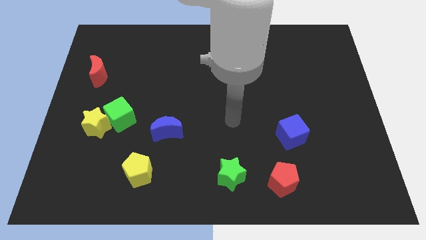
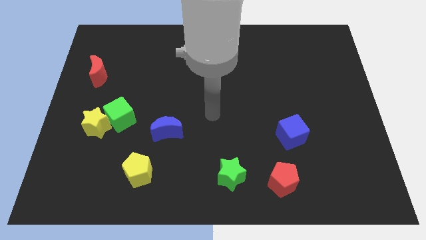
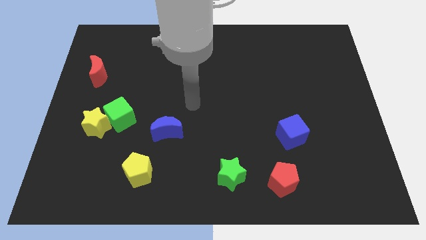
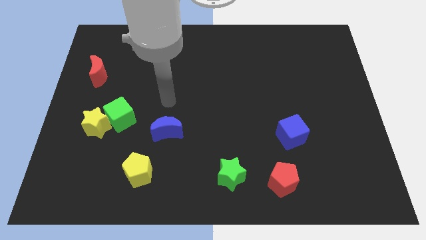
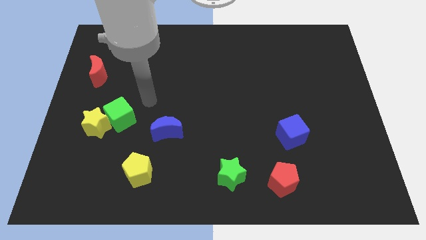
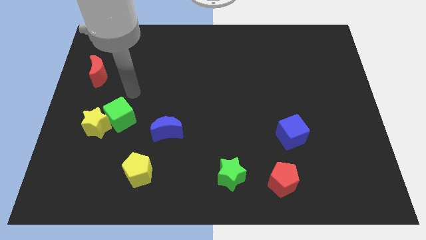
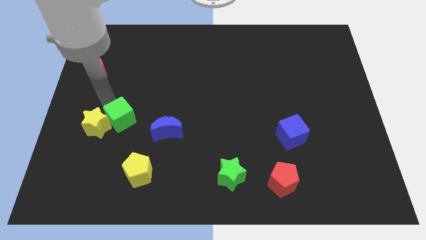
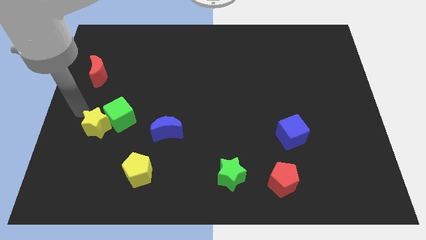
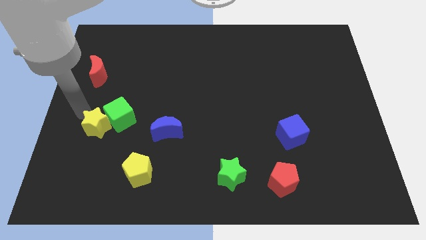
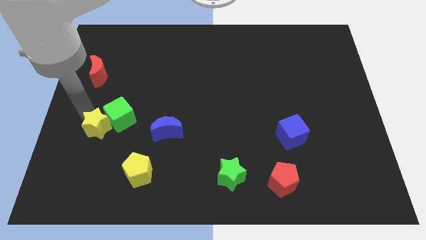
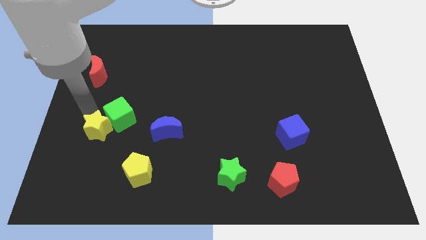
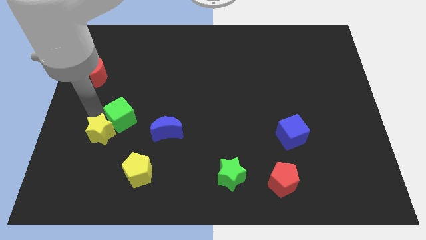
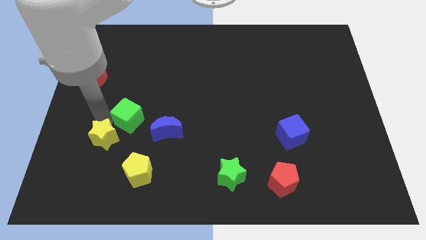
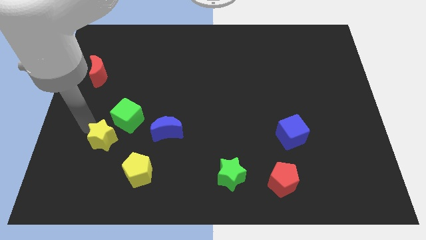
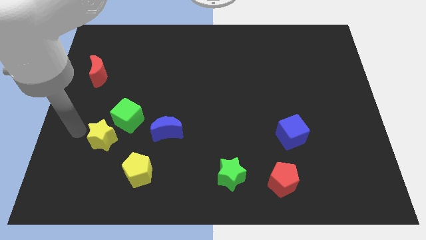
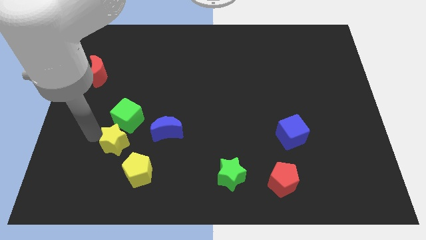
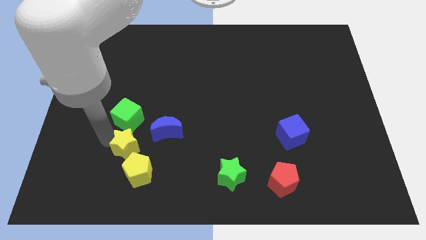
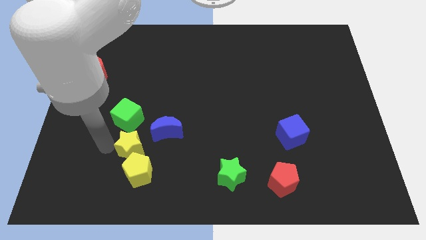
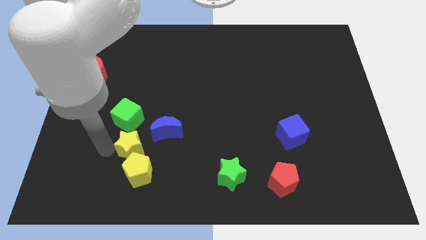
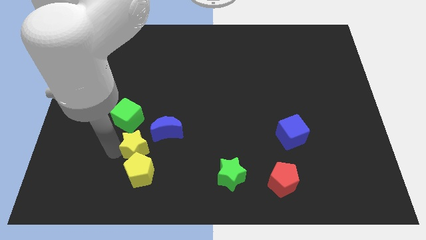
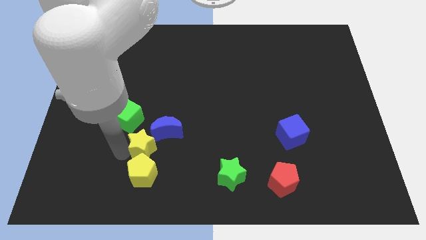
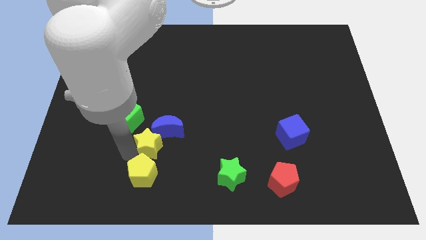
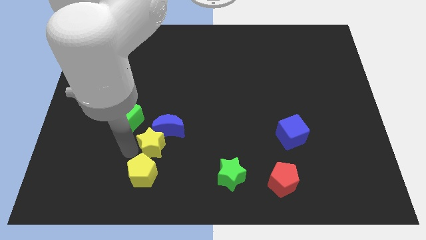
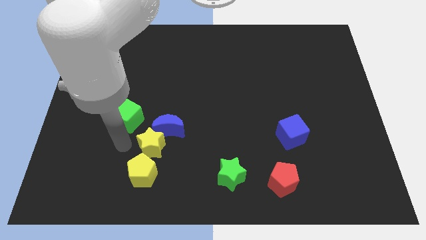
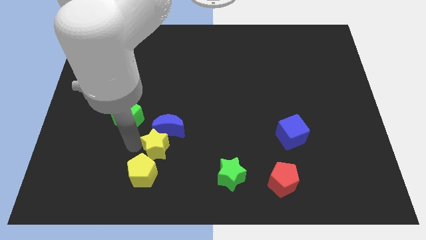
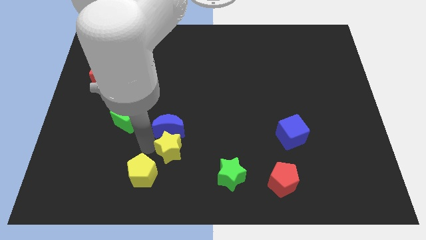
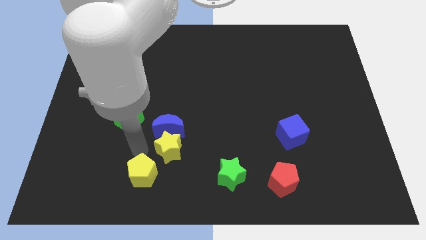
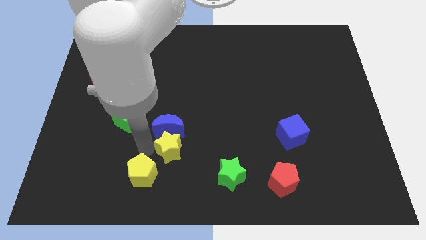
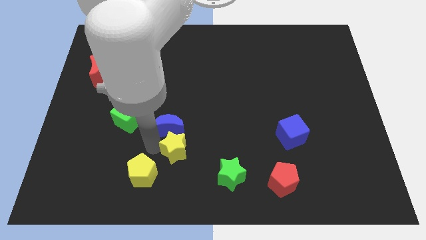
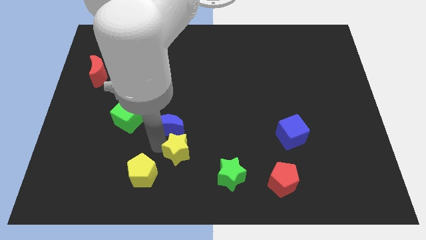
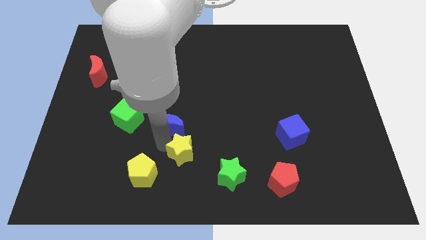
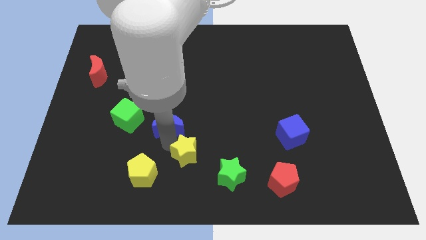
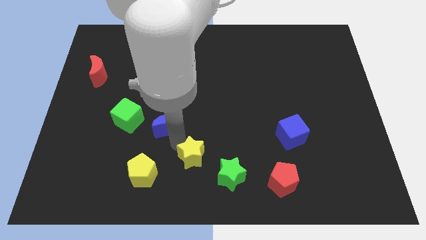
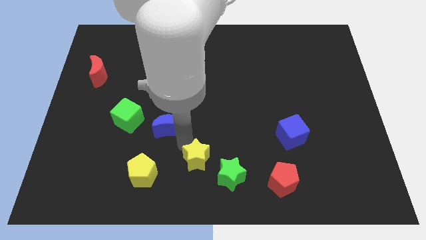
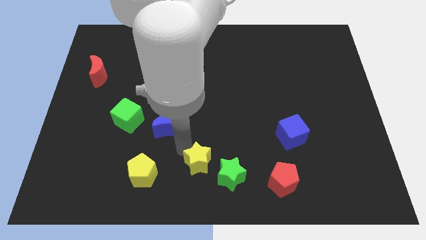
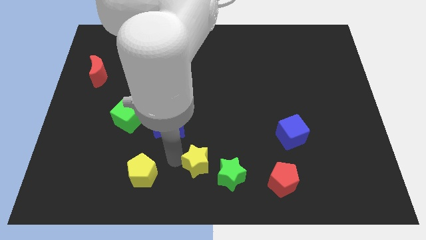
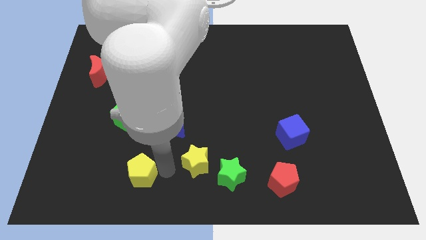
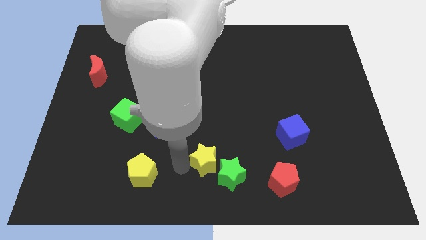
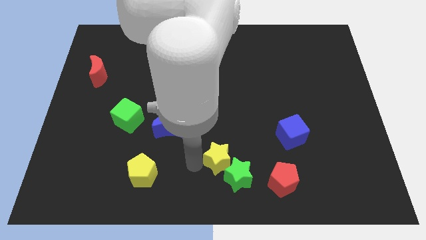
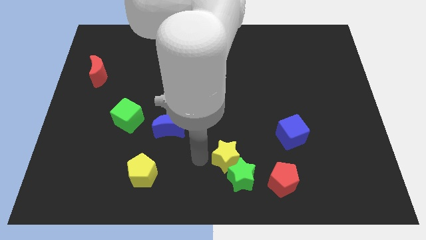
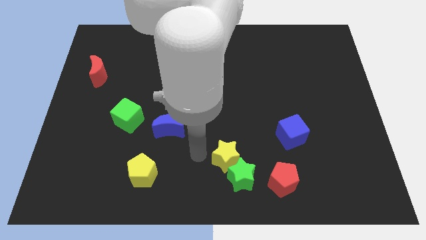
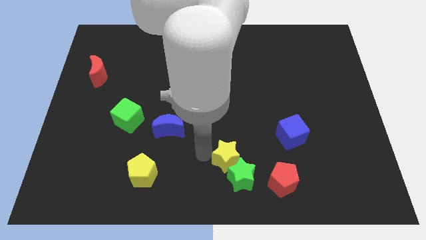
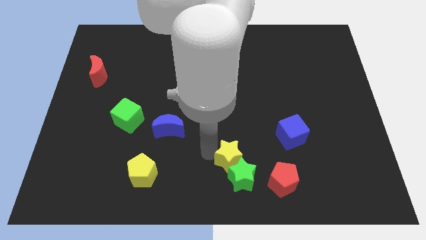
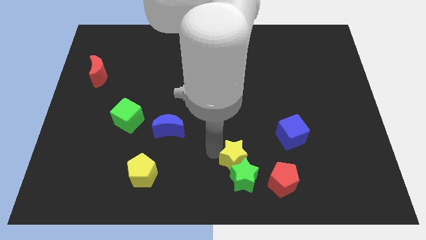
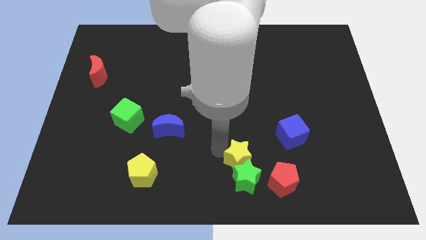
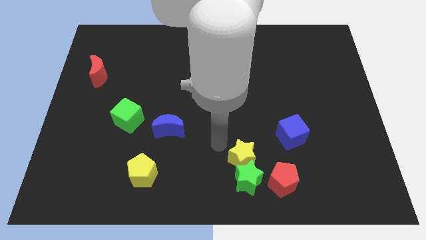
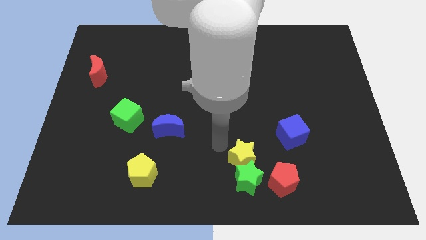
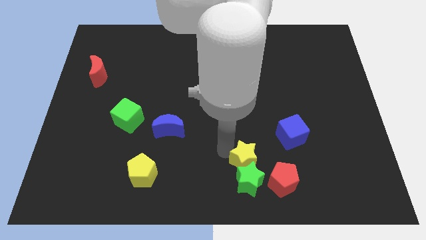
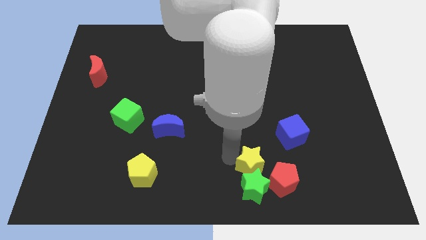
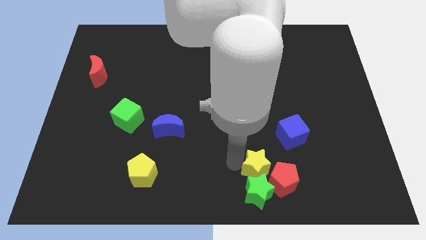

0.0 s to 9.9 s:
put the yellow star towards the red pentagon

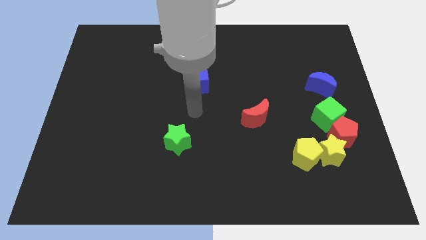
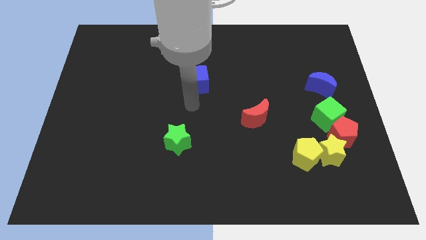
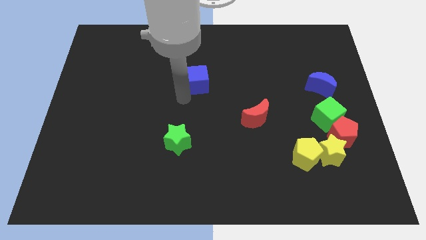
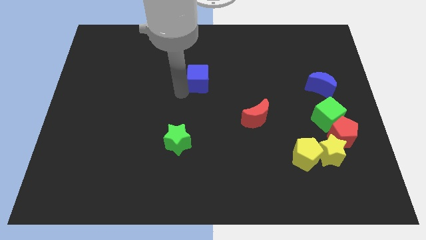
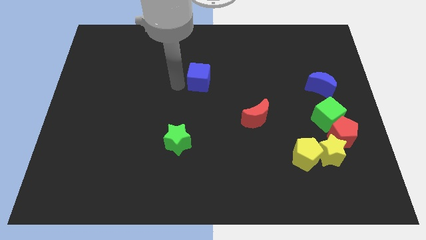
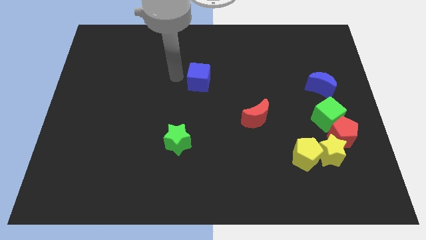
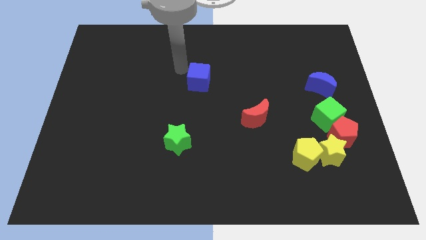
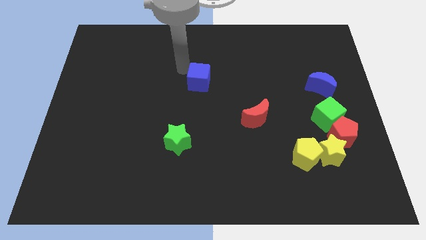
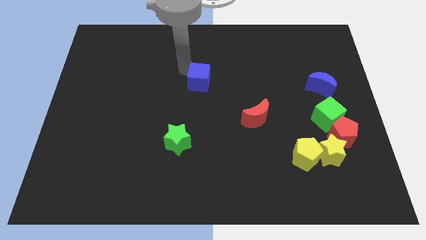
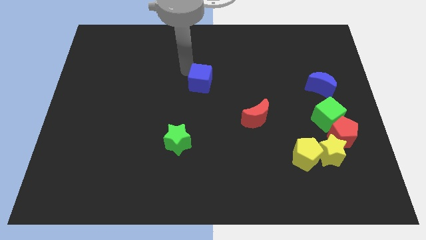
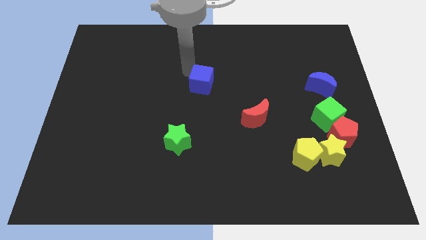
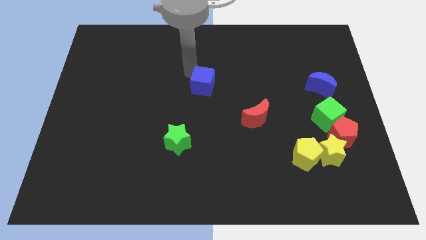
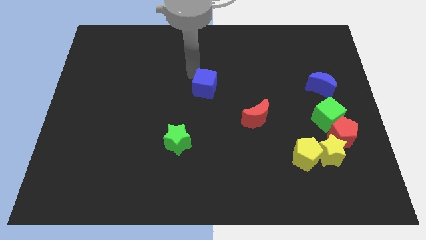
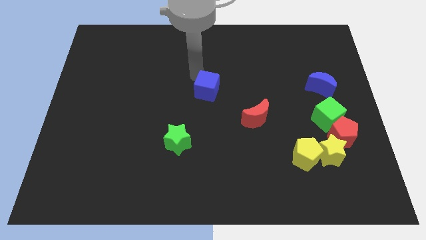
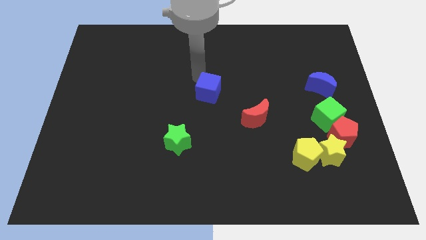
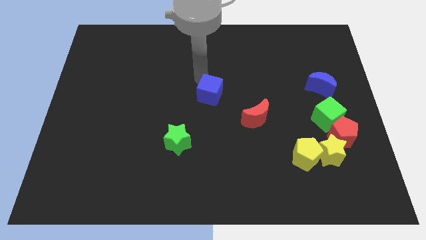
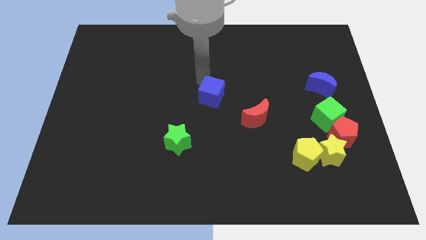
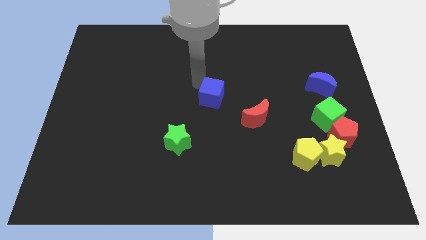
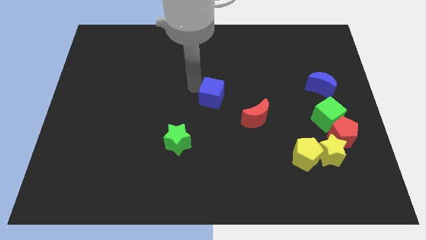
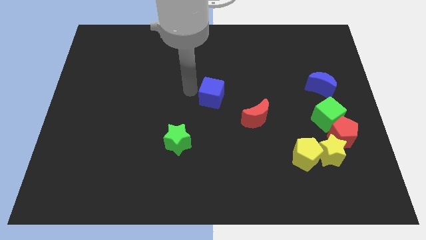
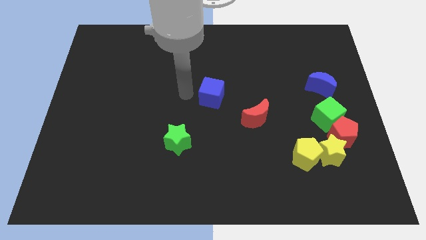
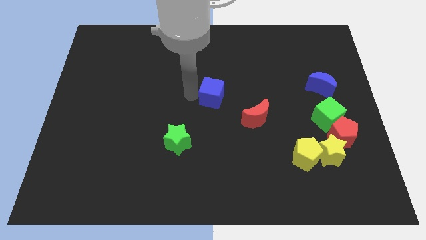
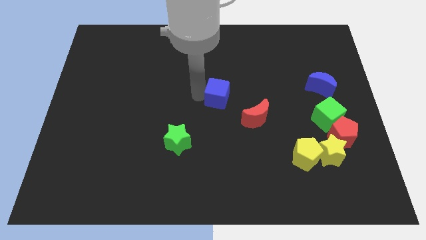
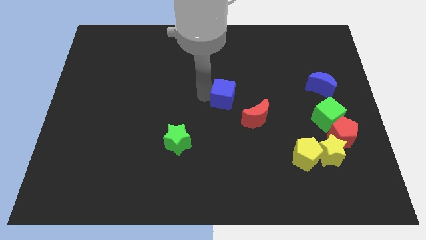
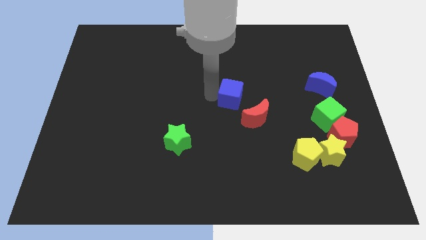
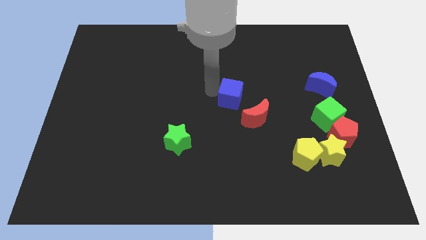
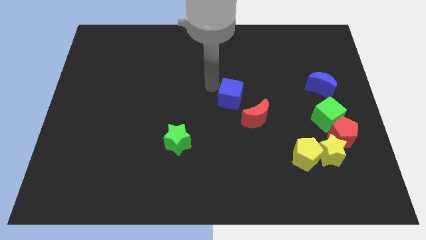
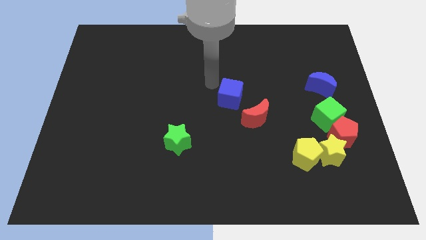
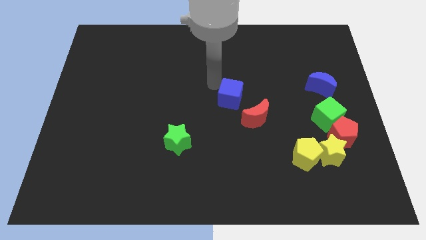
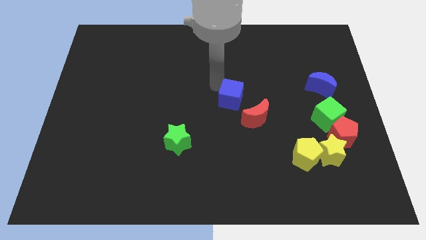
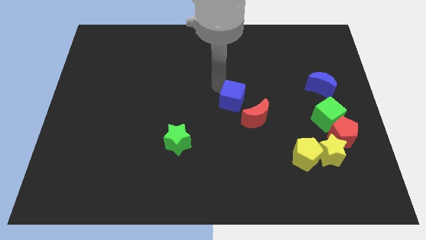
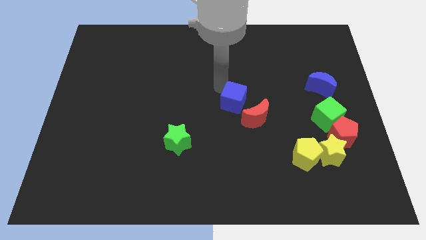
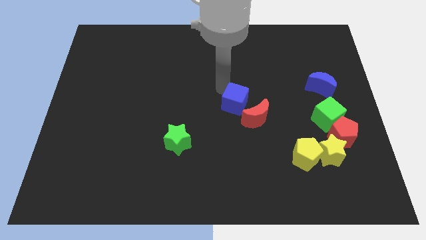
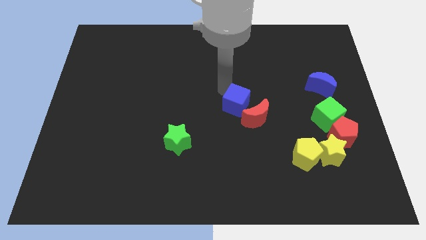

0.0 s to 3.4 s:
slide the blue cube next to the red moon
